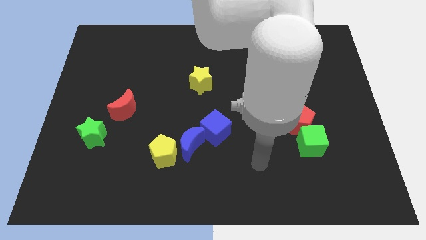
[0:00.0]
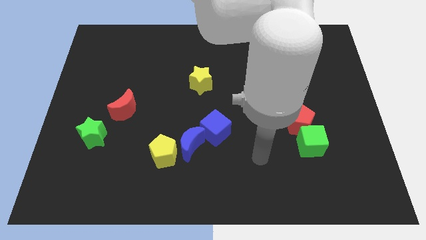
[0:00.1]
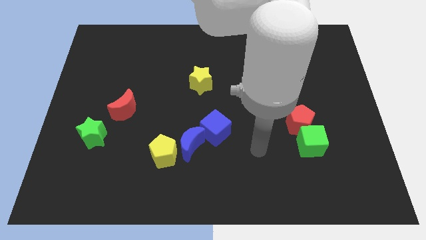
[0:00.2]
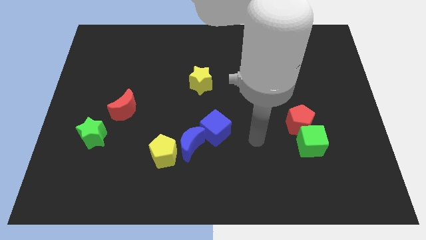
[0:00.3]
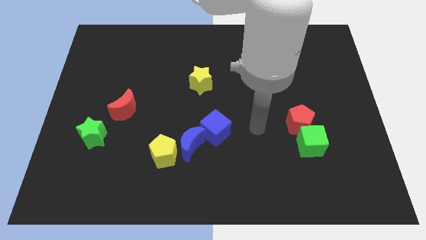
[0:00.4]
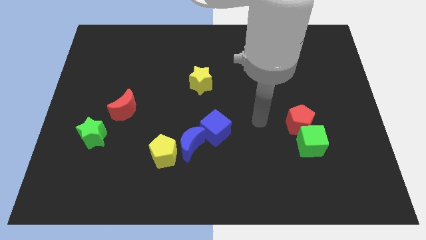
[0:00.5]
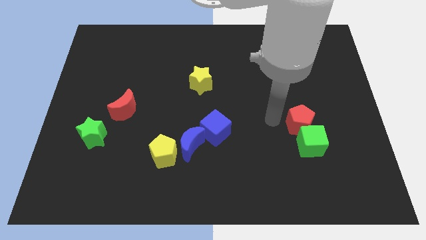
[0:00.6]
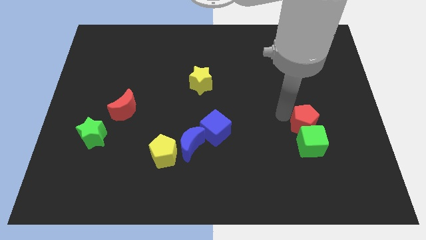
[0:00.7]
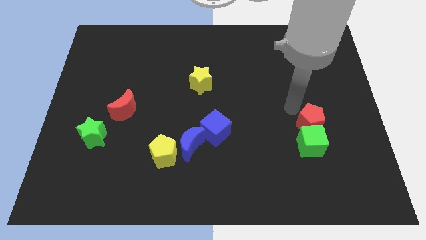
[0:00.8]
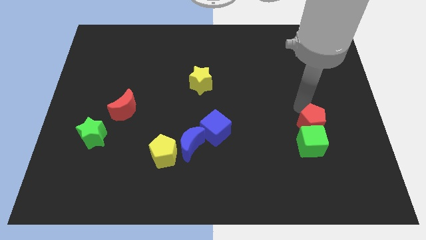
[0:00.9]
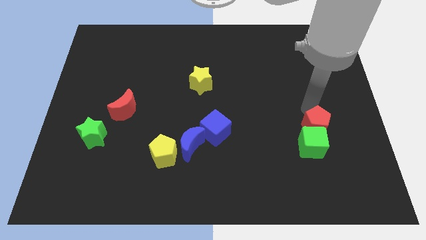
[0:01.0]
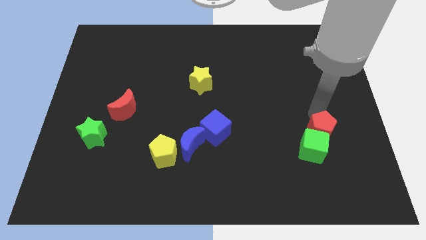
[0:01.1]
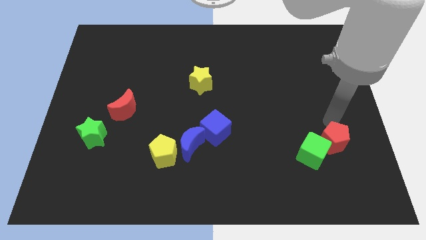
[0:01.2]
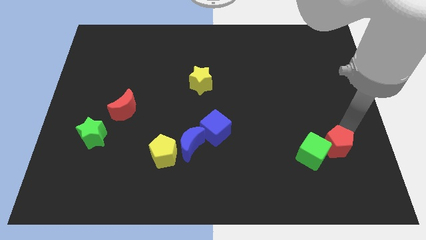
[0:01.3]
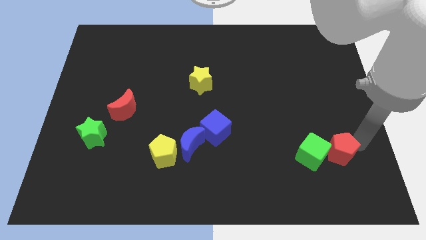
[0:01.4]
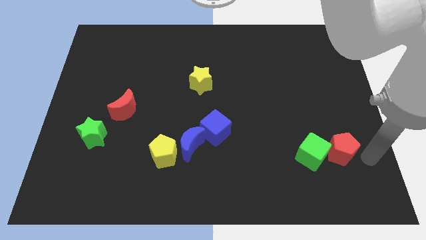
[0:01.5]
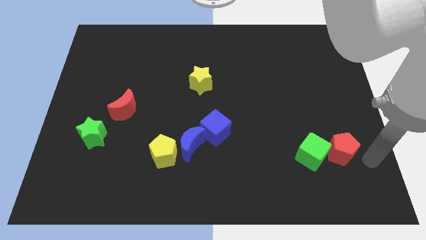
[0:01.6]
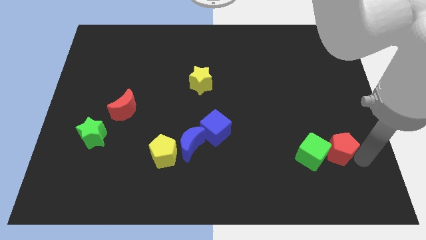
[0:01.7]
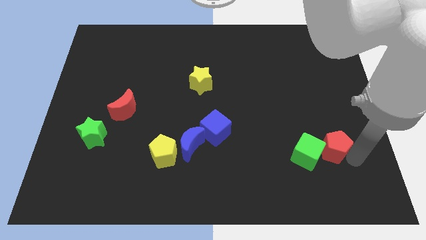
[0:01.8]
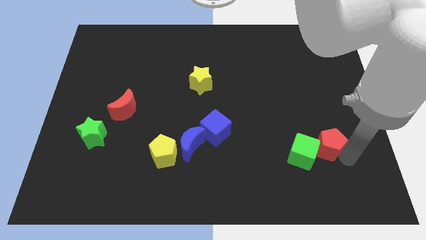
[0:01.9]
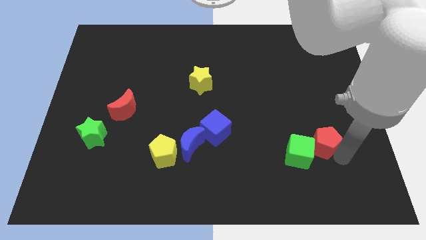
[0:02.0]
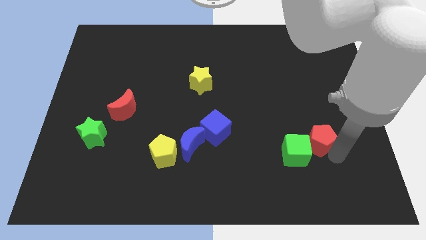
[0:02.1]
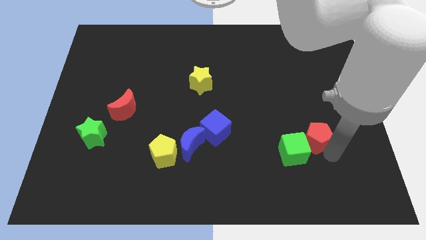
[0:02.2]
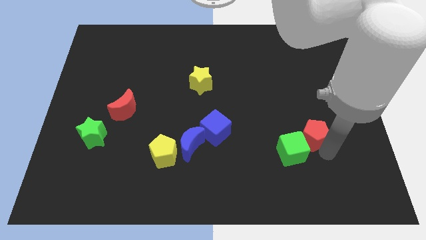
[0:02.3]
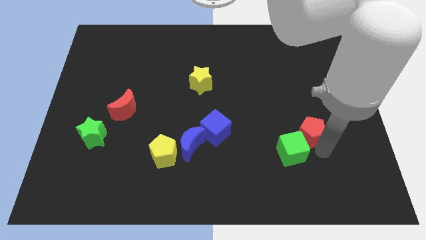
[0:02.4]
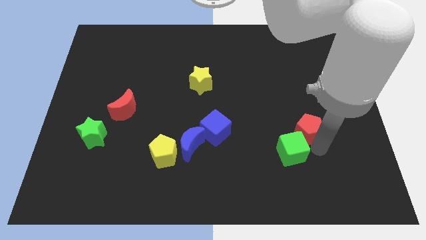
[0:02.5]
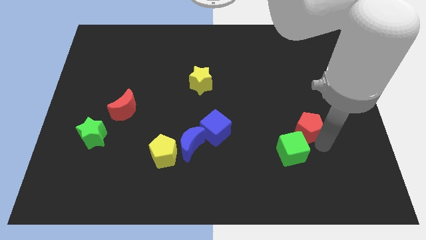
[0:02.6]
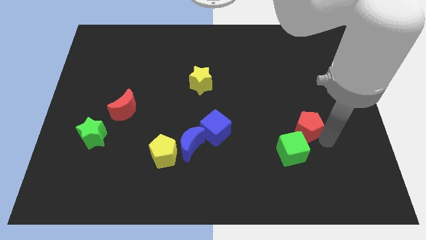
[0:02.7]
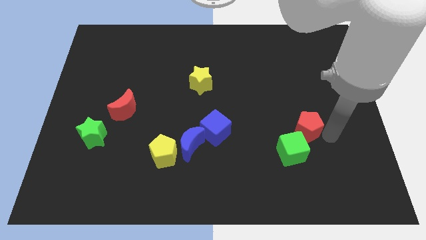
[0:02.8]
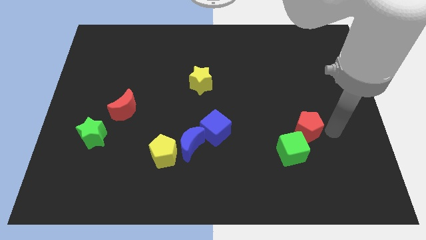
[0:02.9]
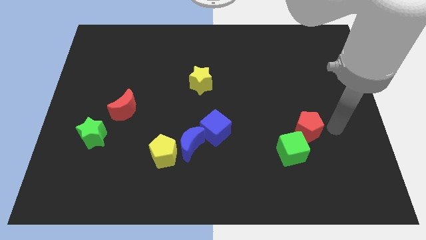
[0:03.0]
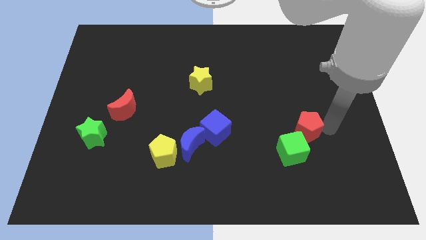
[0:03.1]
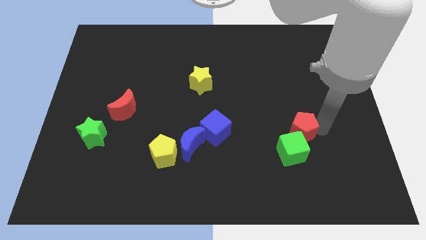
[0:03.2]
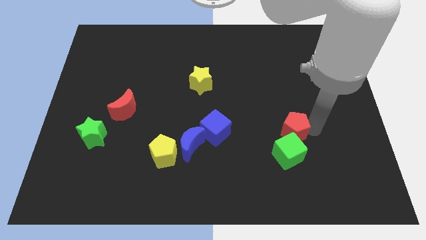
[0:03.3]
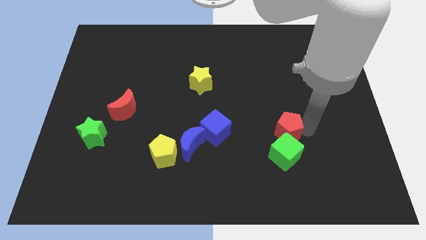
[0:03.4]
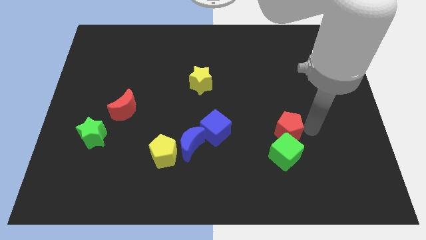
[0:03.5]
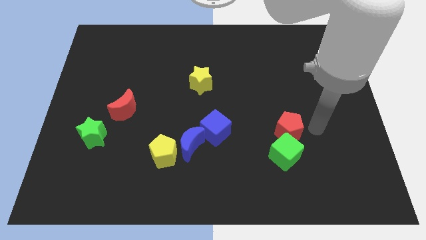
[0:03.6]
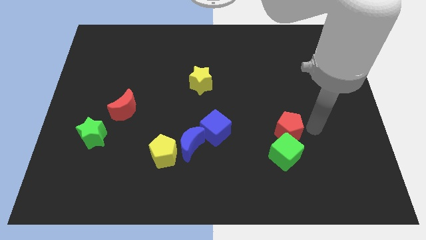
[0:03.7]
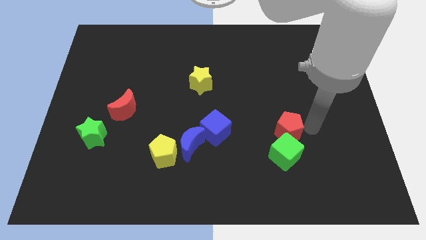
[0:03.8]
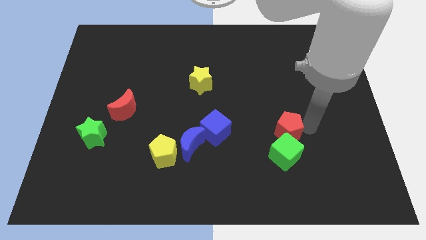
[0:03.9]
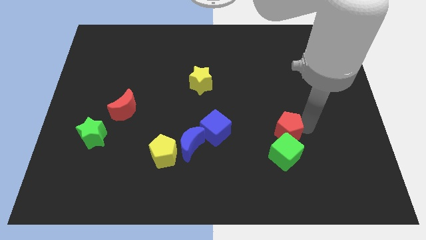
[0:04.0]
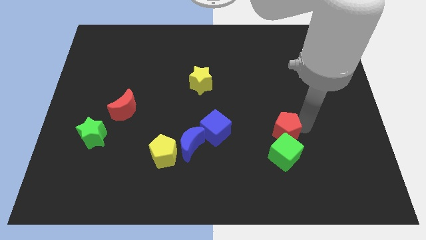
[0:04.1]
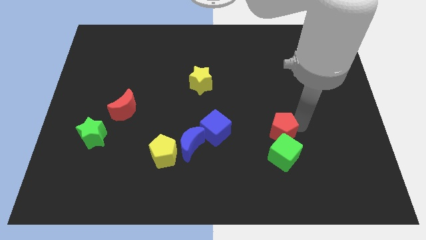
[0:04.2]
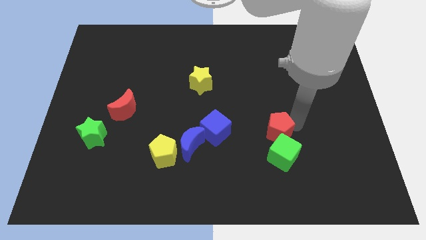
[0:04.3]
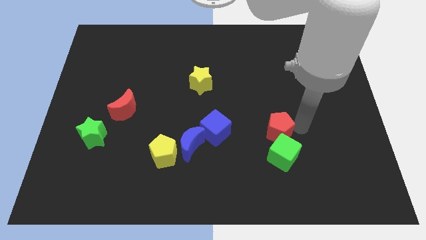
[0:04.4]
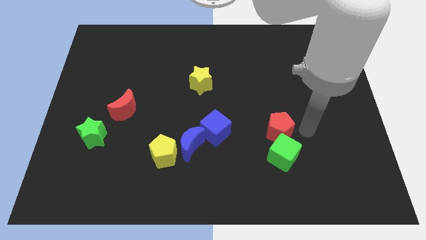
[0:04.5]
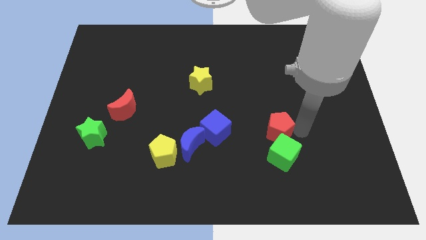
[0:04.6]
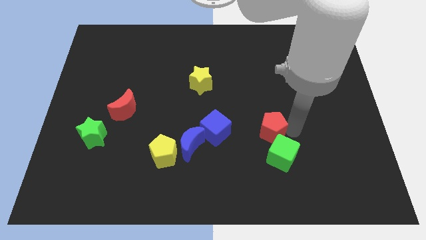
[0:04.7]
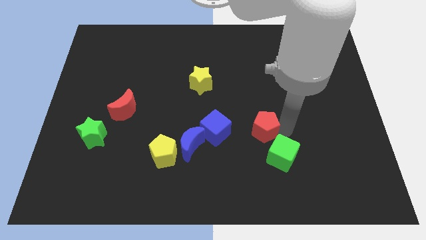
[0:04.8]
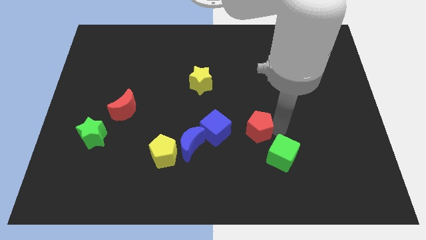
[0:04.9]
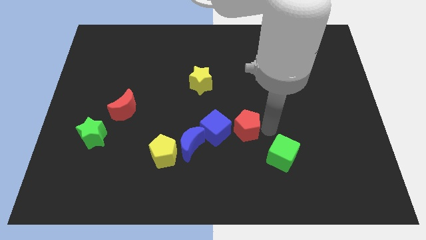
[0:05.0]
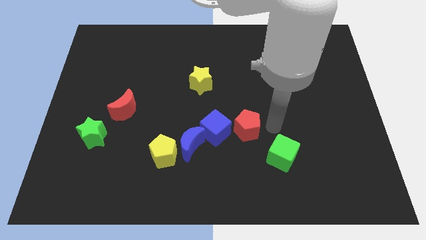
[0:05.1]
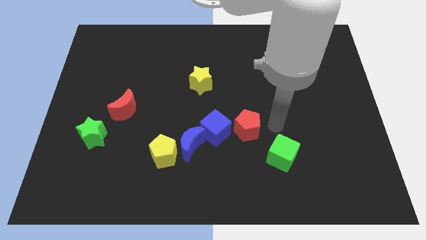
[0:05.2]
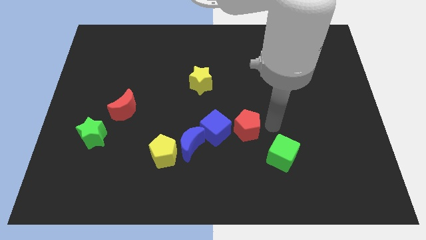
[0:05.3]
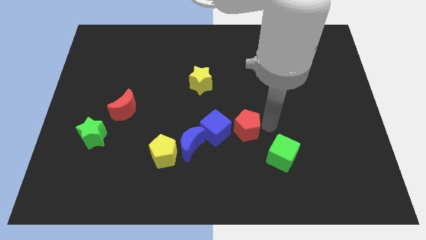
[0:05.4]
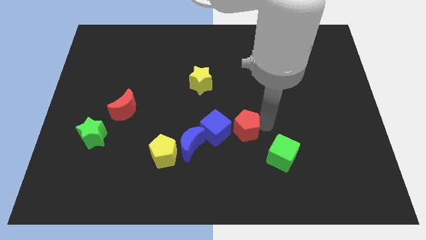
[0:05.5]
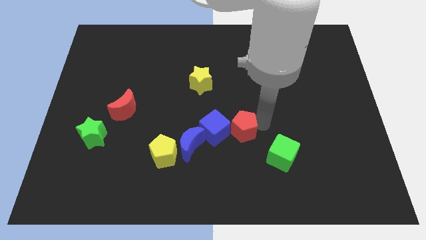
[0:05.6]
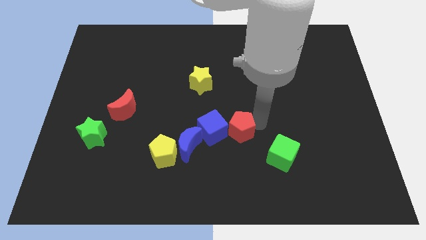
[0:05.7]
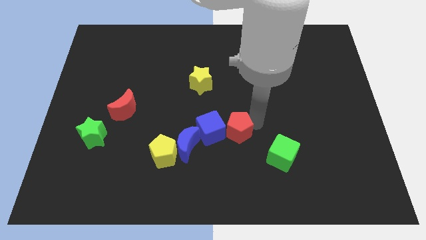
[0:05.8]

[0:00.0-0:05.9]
put the red pentagon next to the blue cube

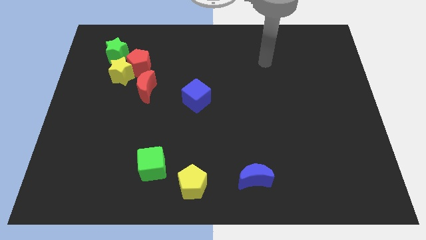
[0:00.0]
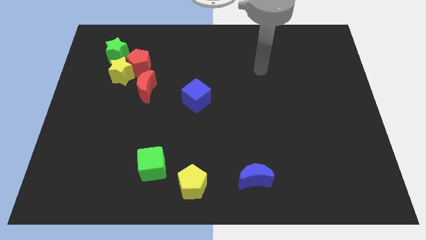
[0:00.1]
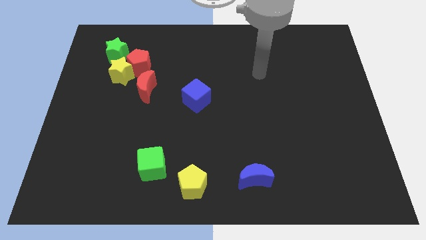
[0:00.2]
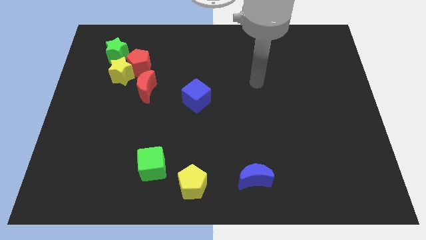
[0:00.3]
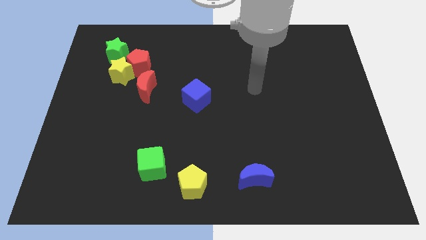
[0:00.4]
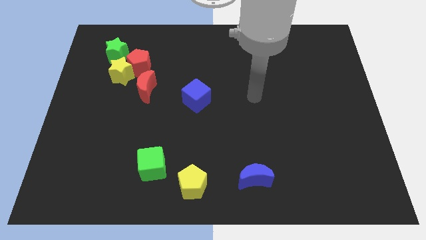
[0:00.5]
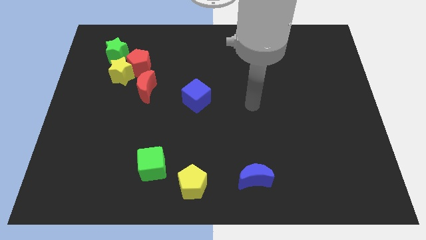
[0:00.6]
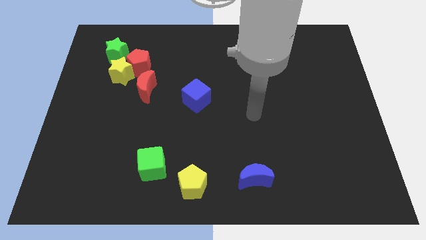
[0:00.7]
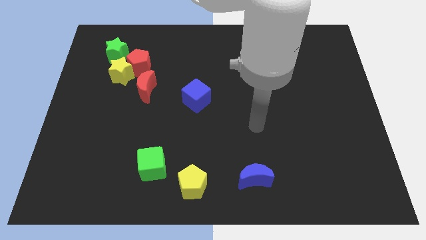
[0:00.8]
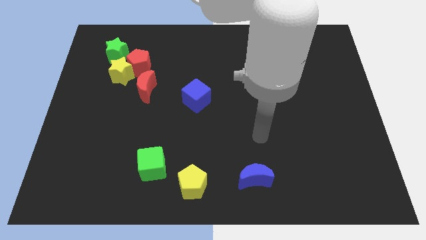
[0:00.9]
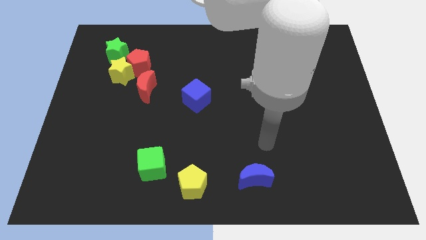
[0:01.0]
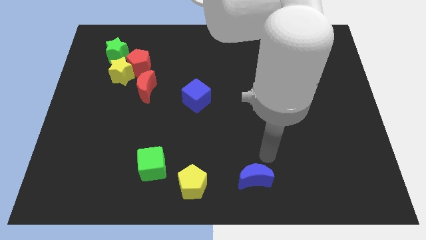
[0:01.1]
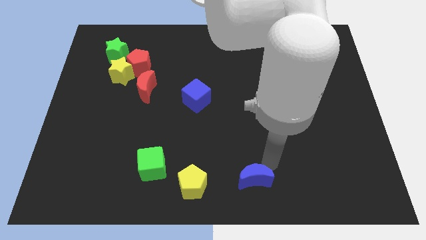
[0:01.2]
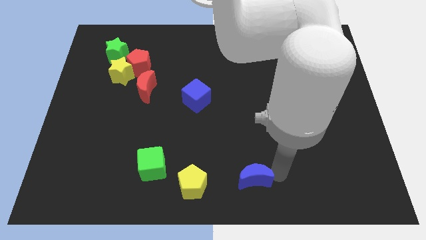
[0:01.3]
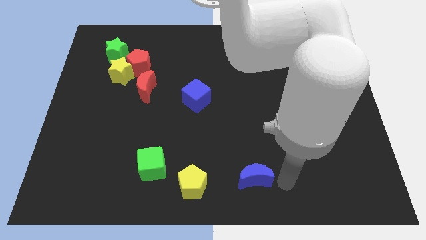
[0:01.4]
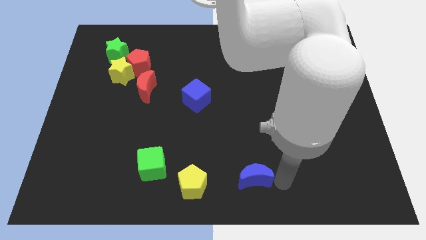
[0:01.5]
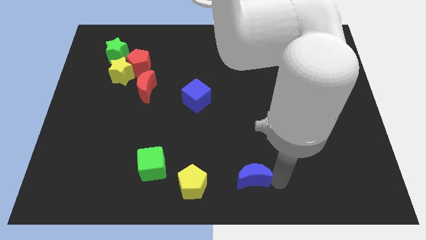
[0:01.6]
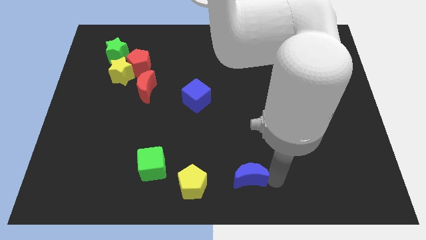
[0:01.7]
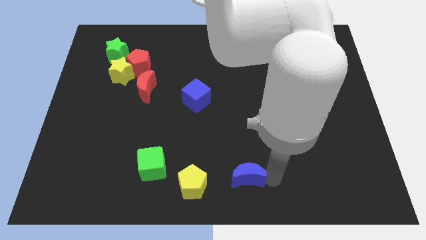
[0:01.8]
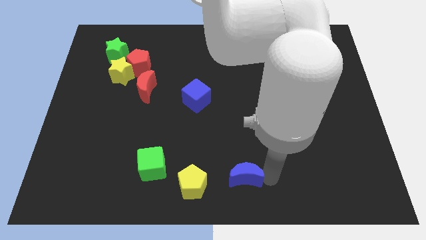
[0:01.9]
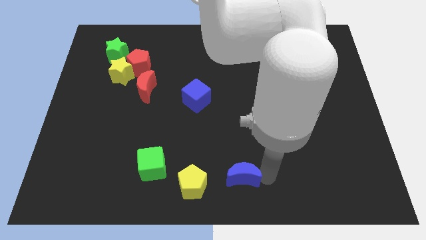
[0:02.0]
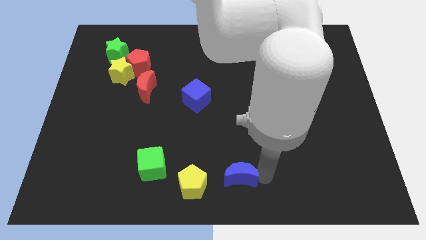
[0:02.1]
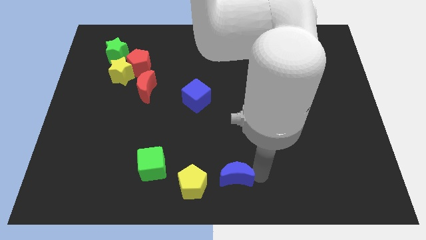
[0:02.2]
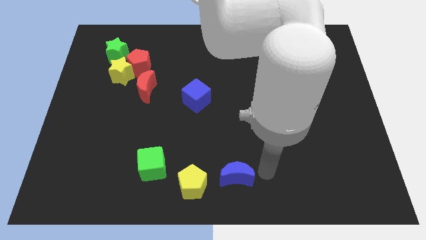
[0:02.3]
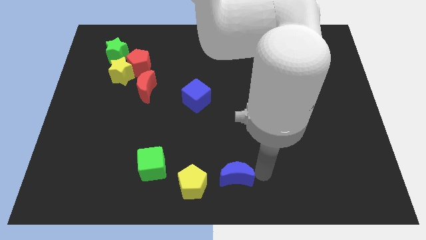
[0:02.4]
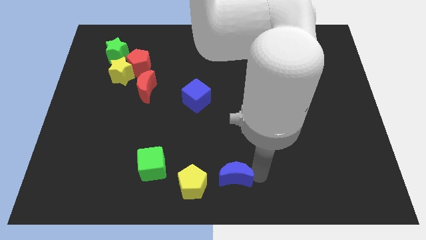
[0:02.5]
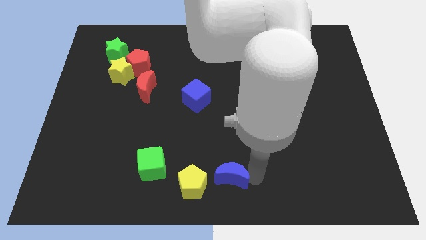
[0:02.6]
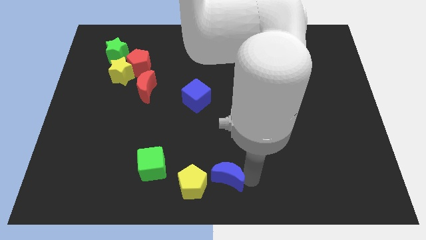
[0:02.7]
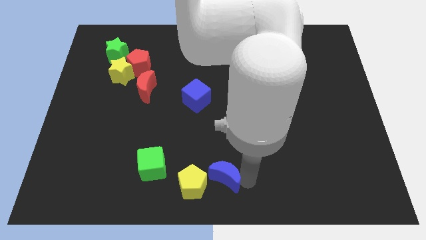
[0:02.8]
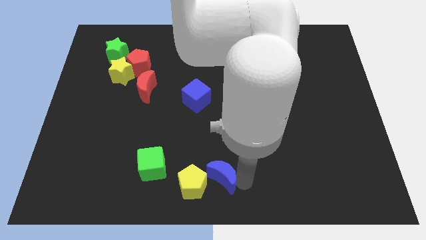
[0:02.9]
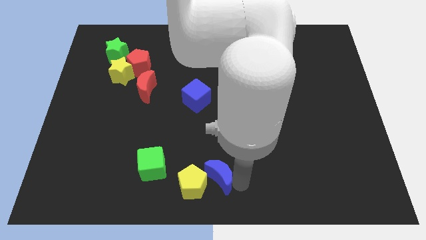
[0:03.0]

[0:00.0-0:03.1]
slide the blue moon towards the yellow pentagon
